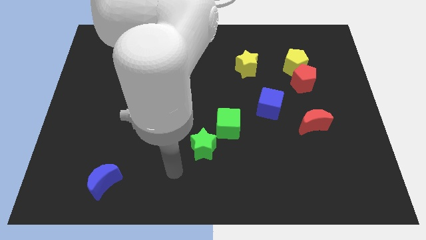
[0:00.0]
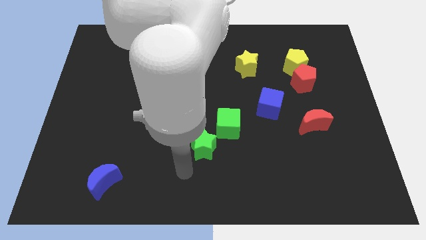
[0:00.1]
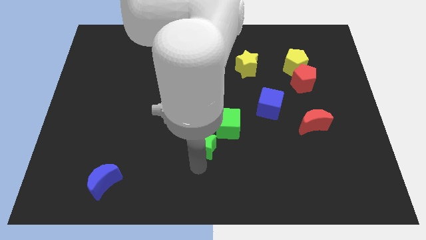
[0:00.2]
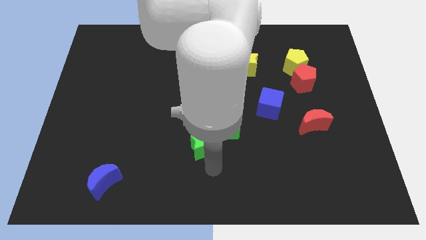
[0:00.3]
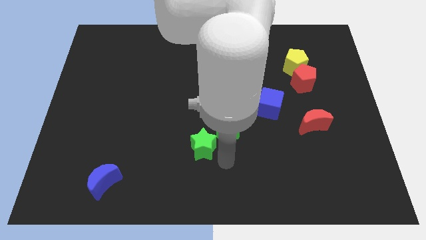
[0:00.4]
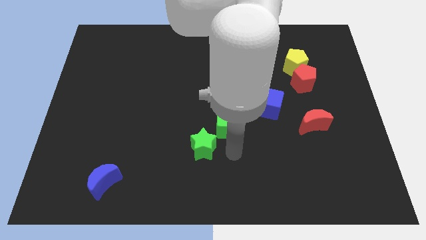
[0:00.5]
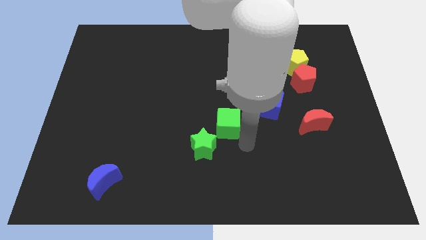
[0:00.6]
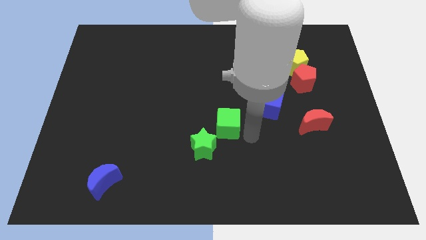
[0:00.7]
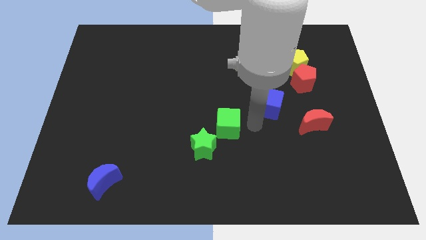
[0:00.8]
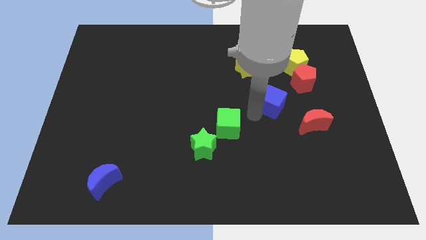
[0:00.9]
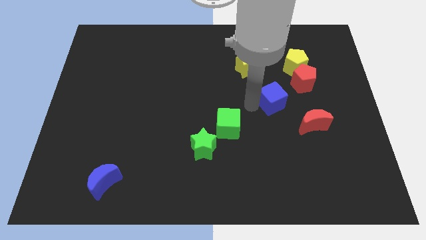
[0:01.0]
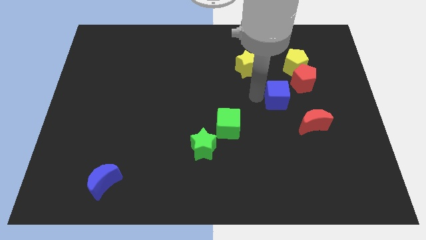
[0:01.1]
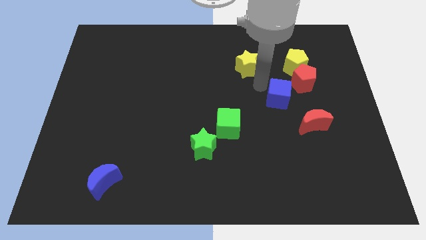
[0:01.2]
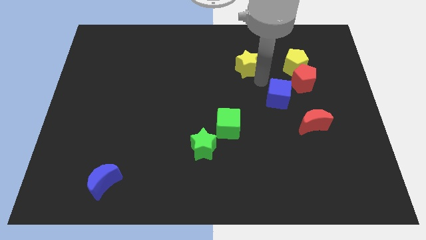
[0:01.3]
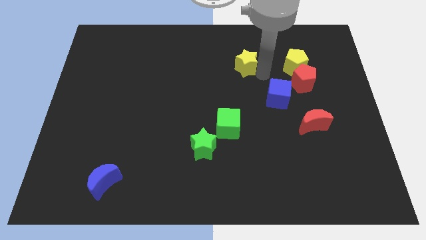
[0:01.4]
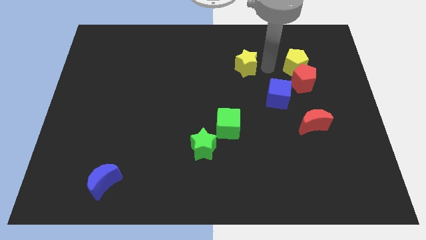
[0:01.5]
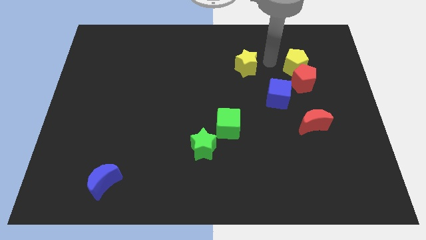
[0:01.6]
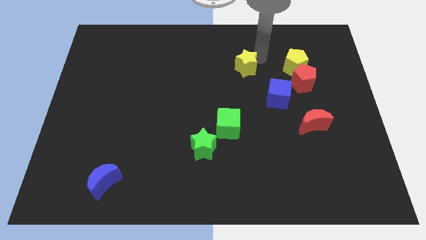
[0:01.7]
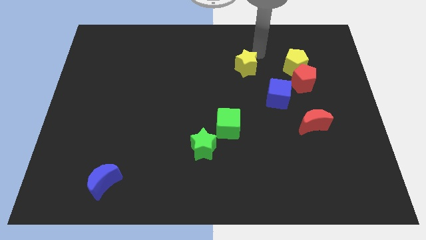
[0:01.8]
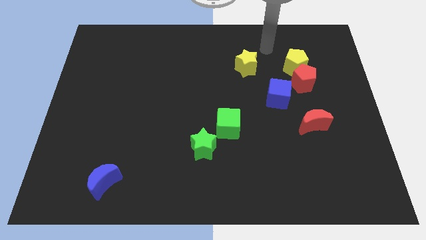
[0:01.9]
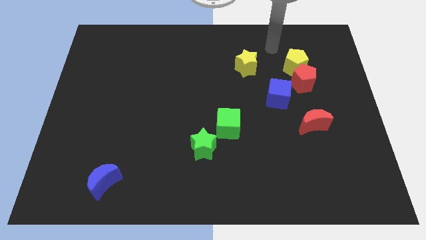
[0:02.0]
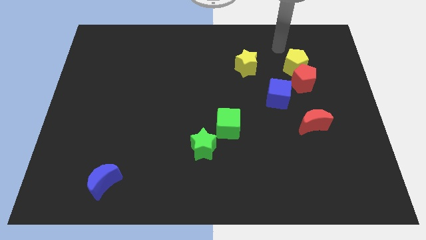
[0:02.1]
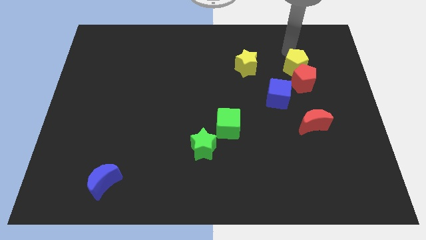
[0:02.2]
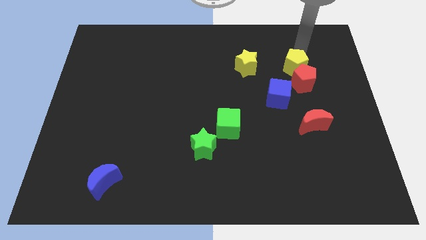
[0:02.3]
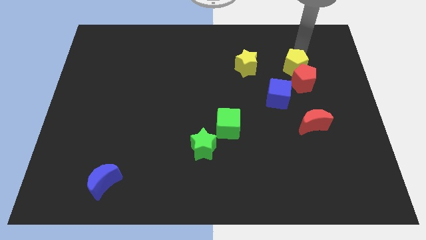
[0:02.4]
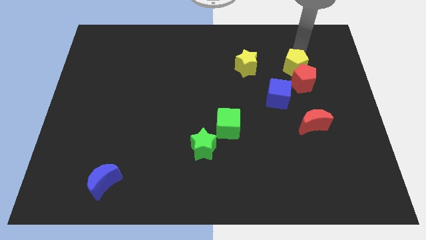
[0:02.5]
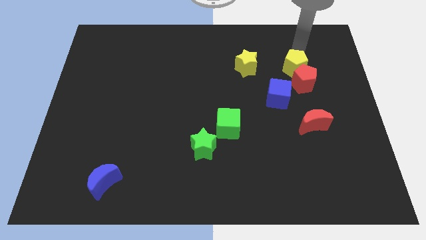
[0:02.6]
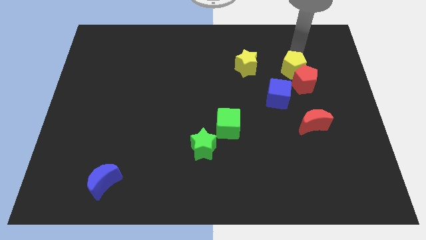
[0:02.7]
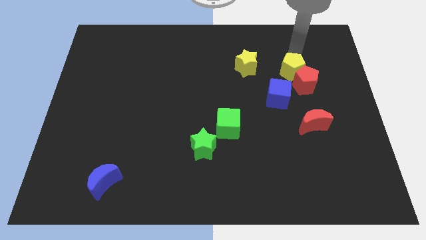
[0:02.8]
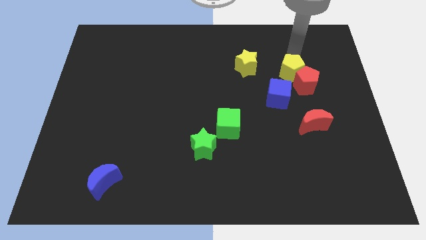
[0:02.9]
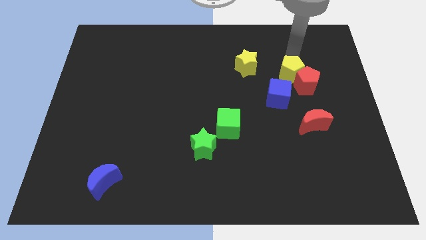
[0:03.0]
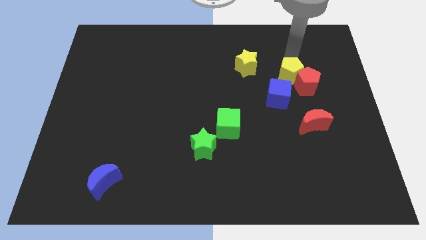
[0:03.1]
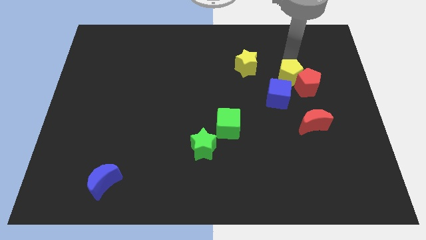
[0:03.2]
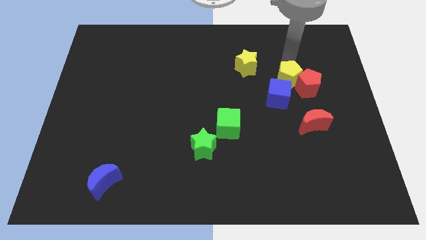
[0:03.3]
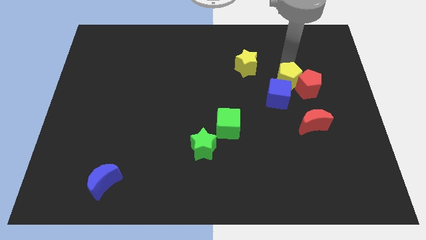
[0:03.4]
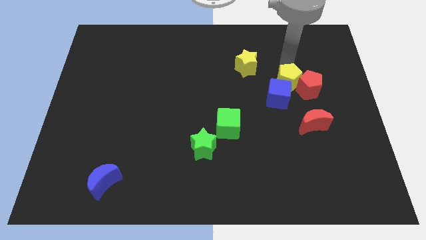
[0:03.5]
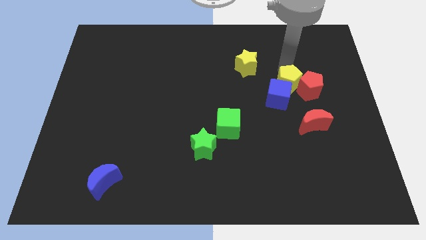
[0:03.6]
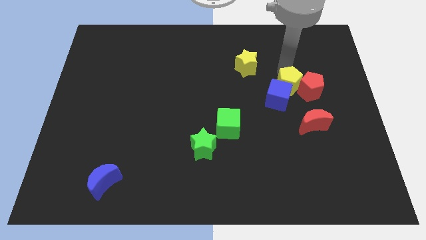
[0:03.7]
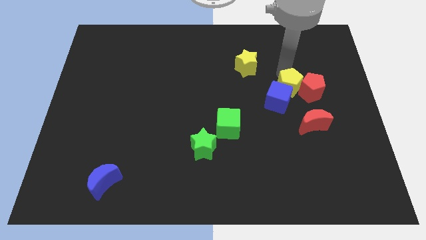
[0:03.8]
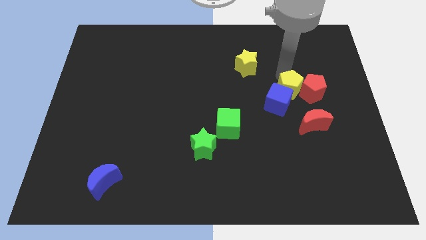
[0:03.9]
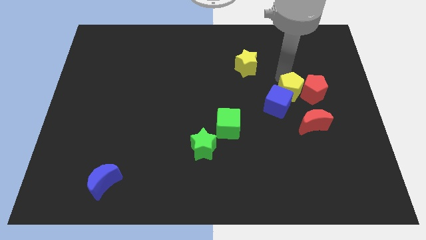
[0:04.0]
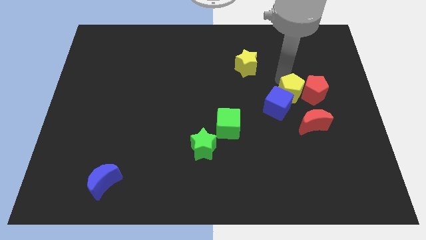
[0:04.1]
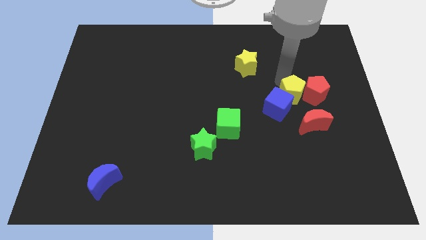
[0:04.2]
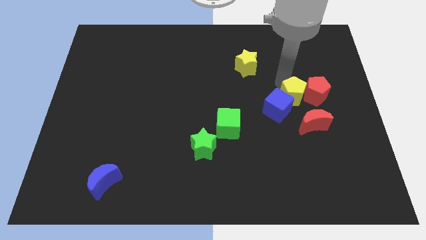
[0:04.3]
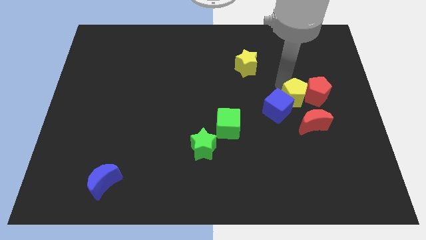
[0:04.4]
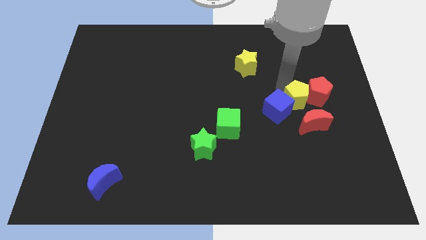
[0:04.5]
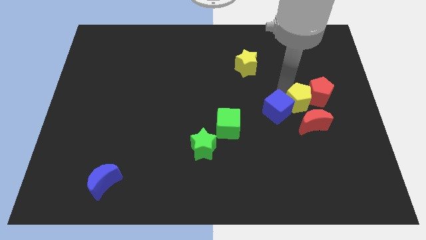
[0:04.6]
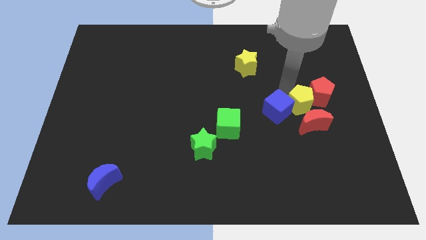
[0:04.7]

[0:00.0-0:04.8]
slide the yellow pentagon next to the red moon

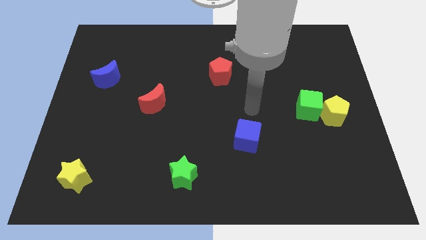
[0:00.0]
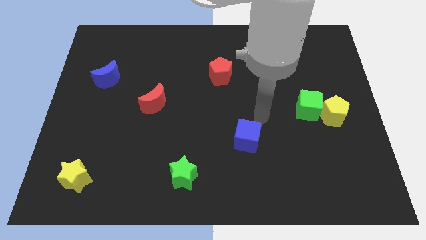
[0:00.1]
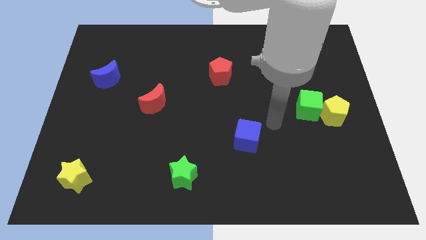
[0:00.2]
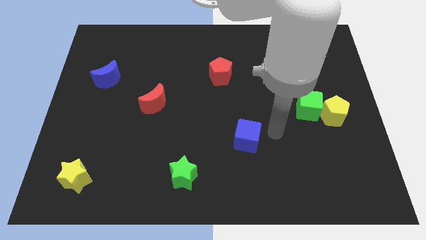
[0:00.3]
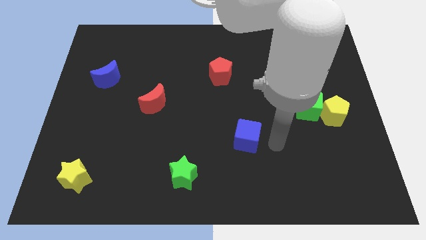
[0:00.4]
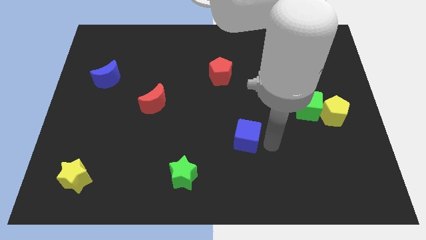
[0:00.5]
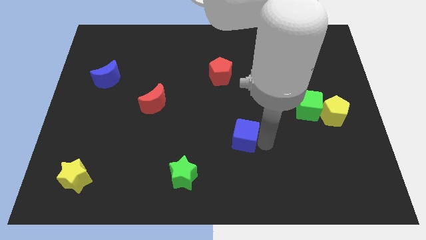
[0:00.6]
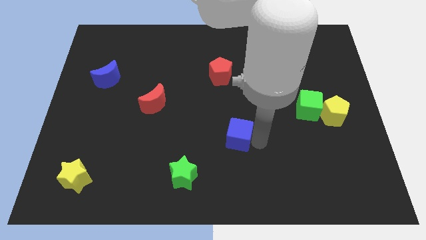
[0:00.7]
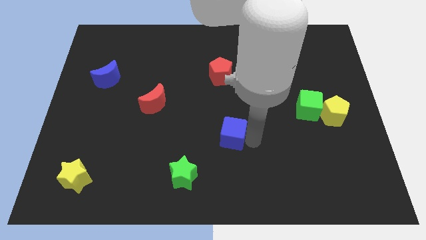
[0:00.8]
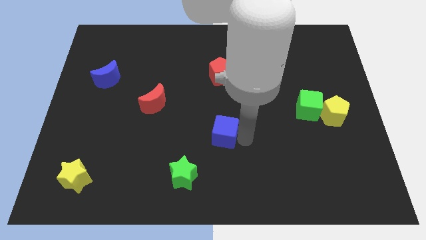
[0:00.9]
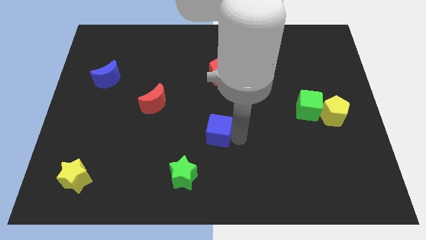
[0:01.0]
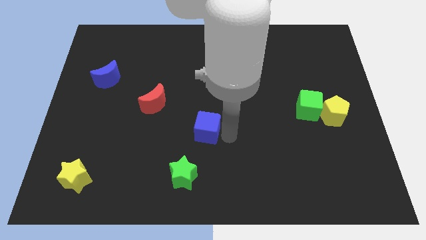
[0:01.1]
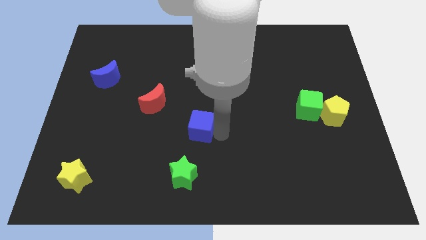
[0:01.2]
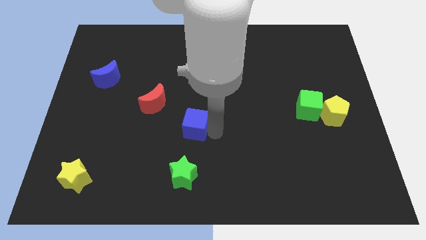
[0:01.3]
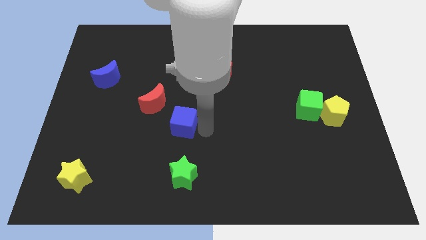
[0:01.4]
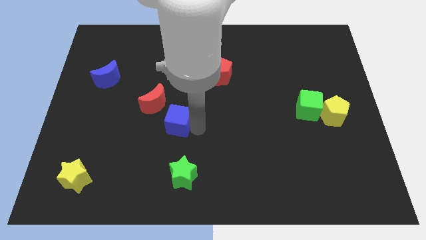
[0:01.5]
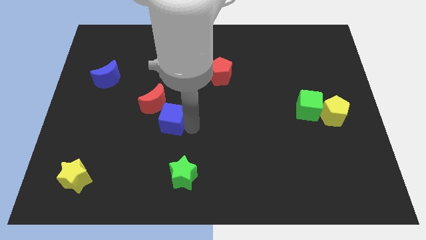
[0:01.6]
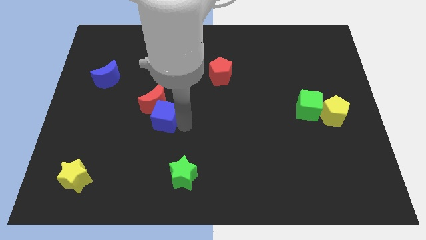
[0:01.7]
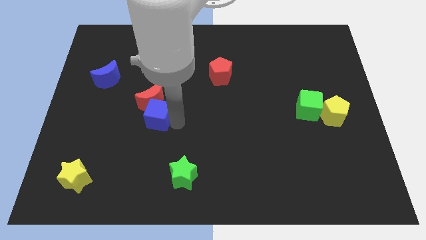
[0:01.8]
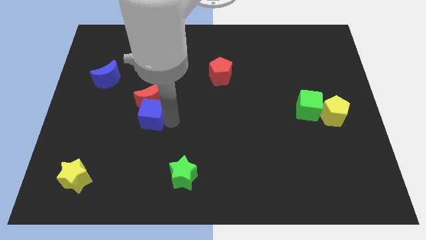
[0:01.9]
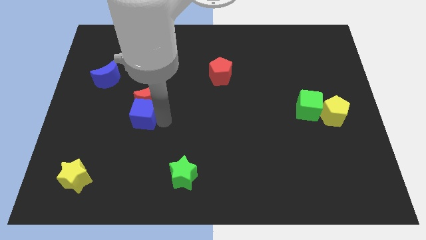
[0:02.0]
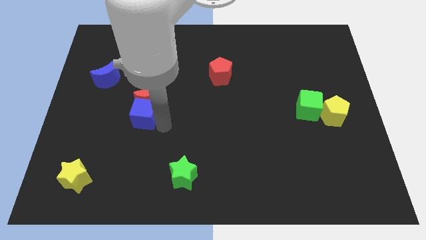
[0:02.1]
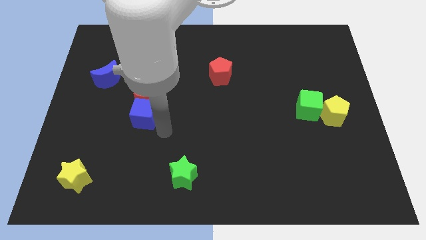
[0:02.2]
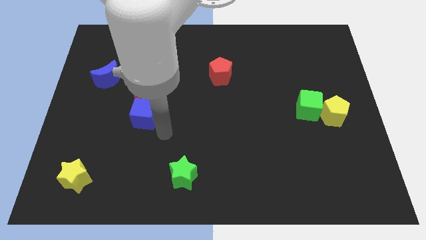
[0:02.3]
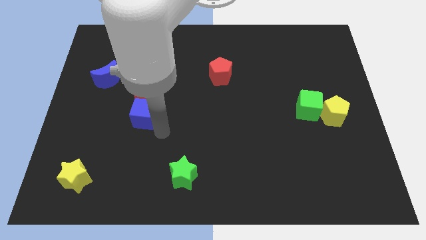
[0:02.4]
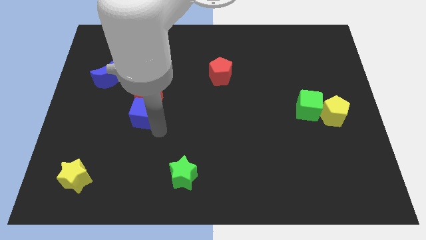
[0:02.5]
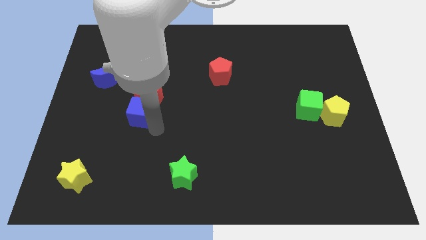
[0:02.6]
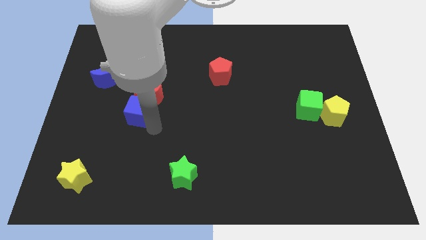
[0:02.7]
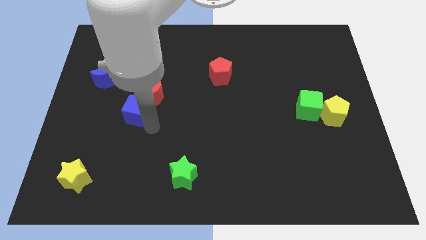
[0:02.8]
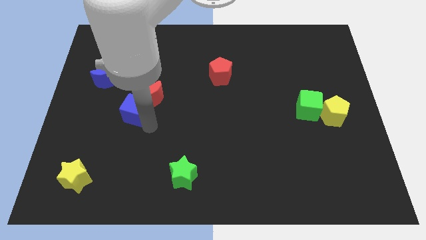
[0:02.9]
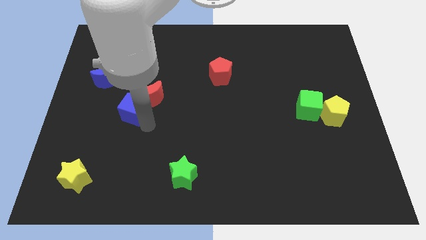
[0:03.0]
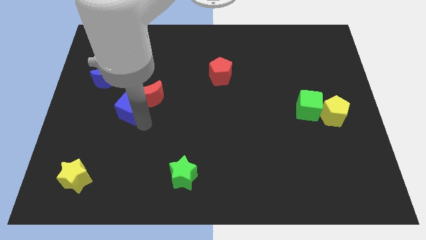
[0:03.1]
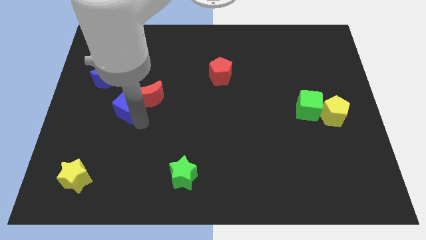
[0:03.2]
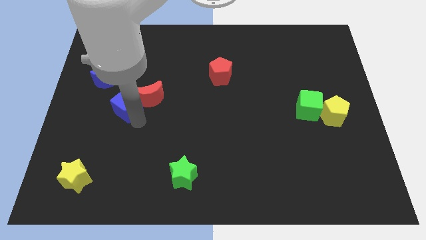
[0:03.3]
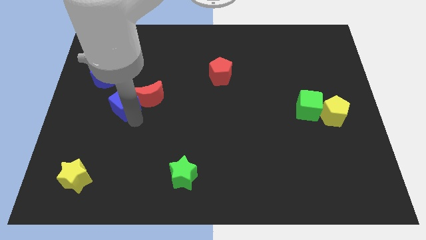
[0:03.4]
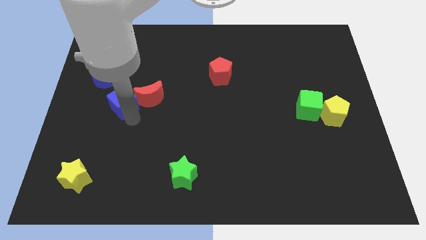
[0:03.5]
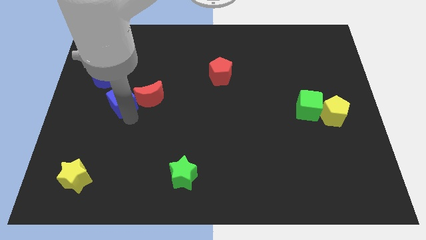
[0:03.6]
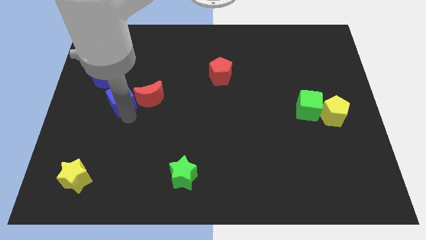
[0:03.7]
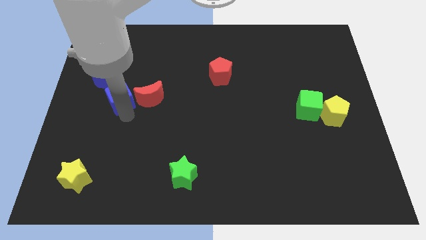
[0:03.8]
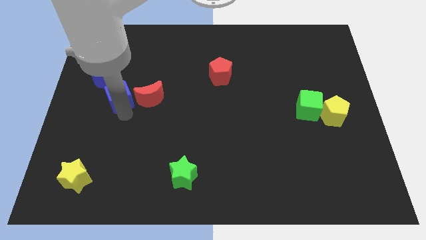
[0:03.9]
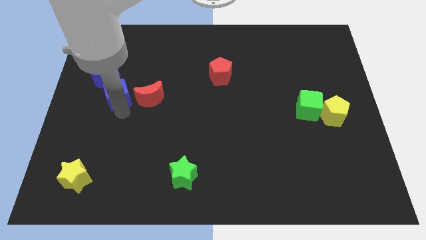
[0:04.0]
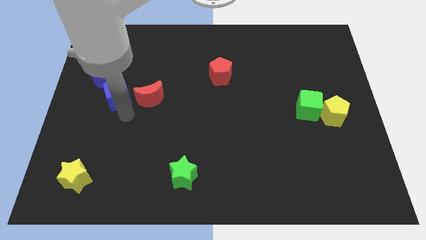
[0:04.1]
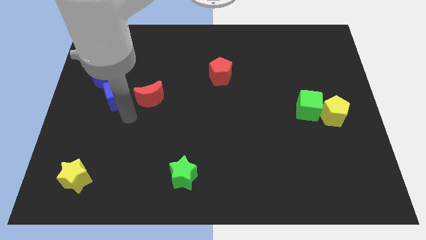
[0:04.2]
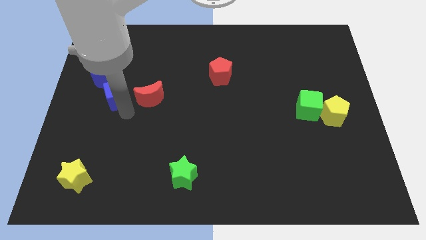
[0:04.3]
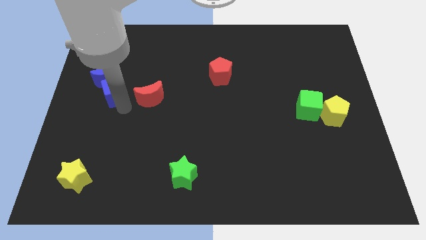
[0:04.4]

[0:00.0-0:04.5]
put the blue cube next to the blue moon
